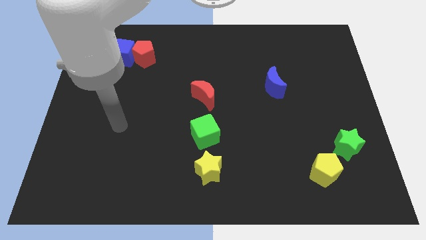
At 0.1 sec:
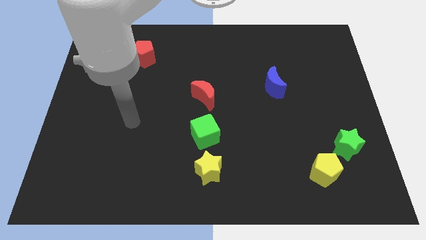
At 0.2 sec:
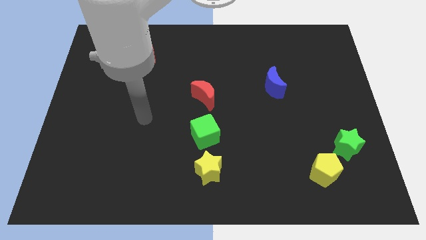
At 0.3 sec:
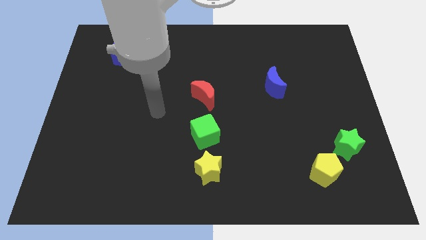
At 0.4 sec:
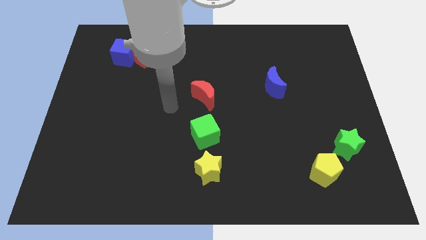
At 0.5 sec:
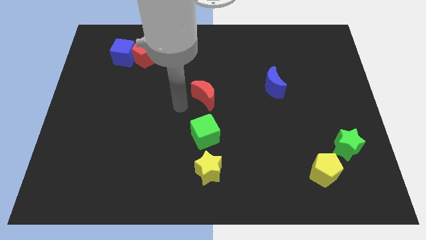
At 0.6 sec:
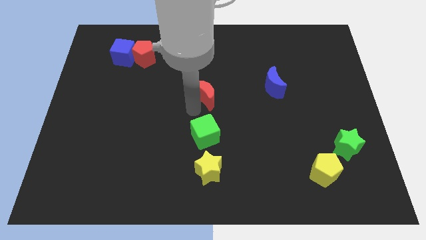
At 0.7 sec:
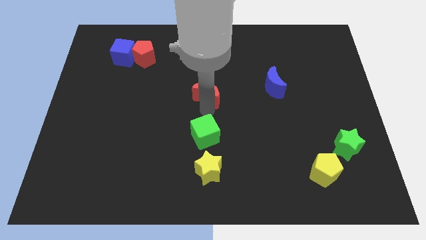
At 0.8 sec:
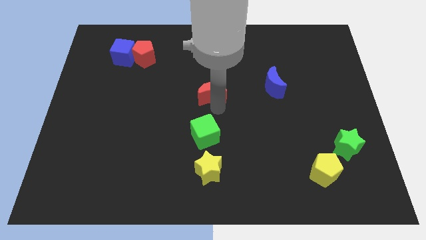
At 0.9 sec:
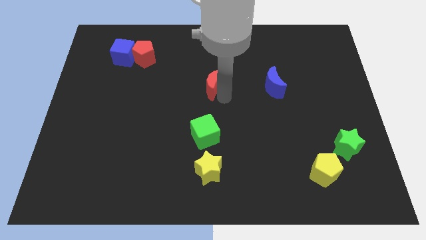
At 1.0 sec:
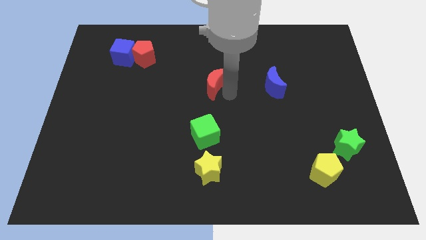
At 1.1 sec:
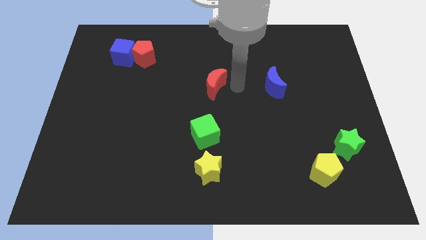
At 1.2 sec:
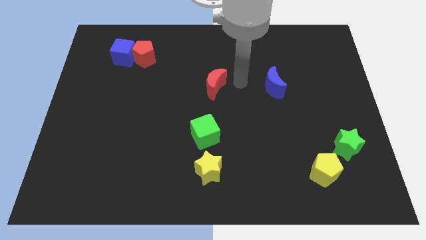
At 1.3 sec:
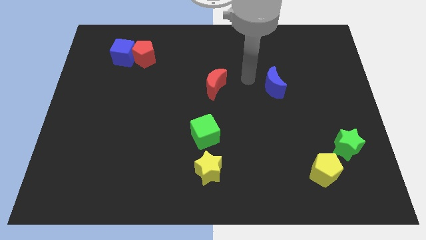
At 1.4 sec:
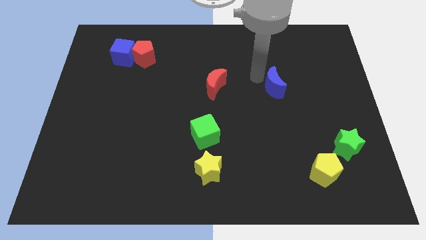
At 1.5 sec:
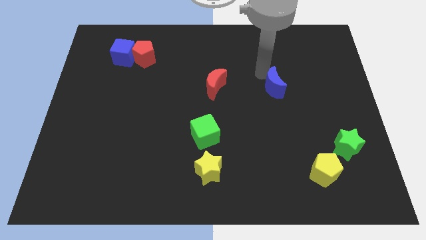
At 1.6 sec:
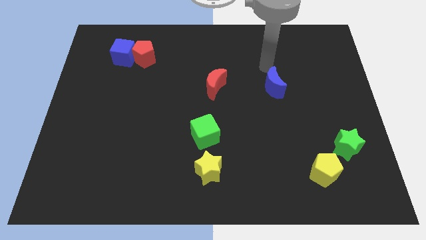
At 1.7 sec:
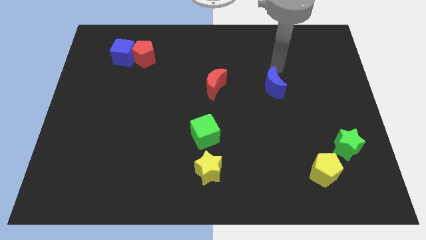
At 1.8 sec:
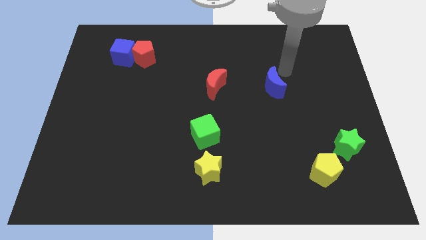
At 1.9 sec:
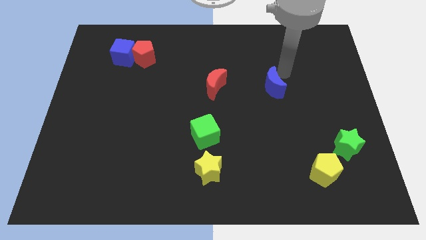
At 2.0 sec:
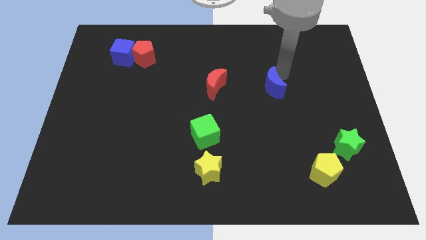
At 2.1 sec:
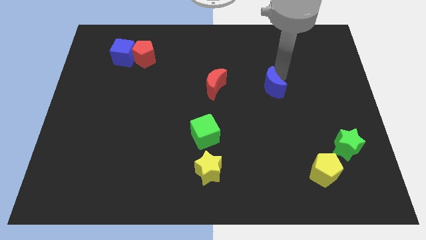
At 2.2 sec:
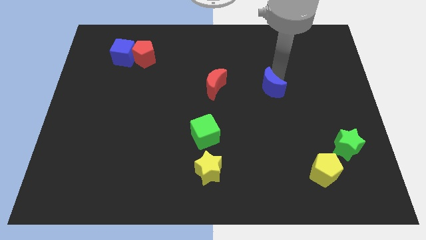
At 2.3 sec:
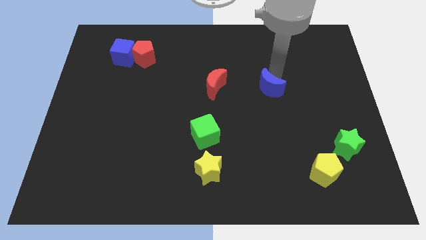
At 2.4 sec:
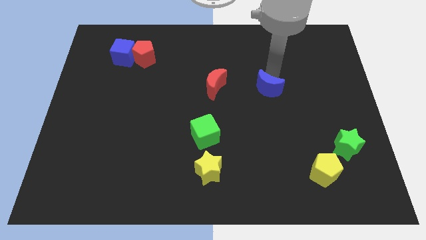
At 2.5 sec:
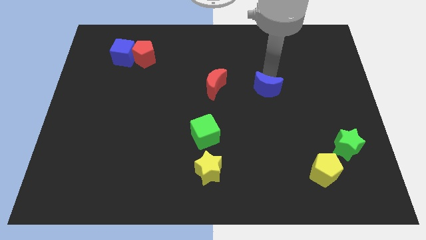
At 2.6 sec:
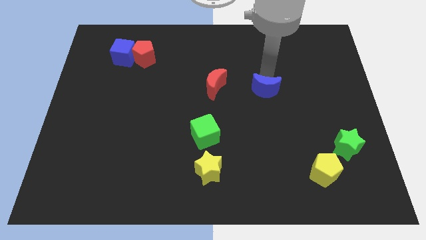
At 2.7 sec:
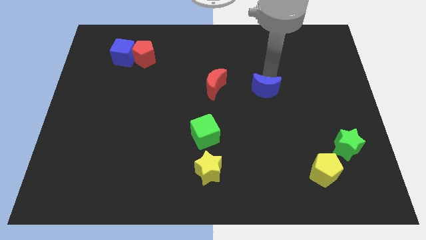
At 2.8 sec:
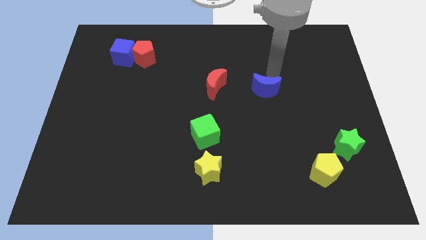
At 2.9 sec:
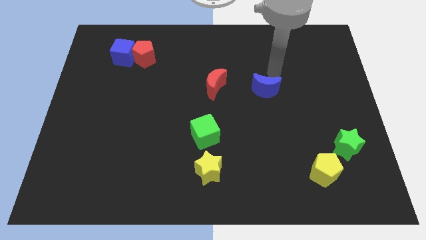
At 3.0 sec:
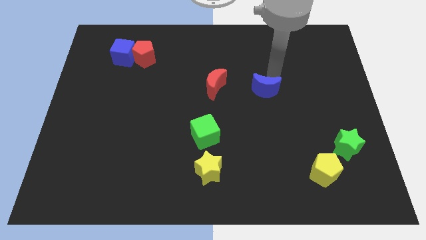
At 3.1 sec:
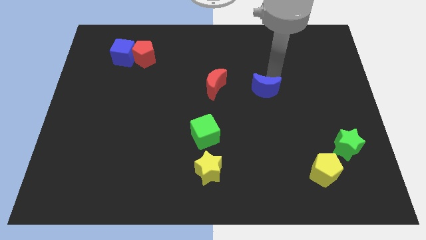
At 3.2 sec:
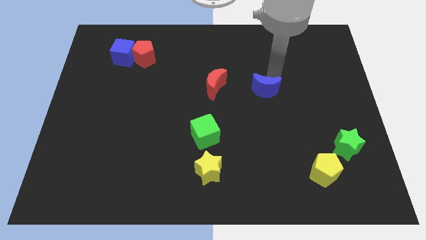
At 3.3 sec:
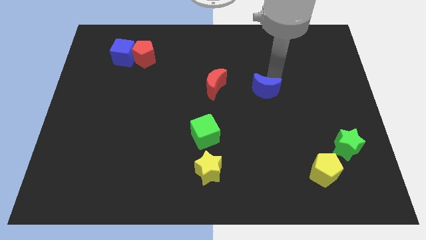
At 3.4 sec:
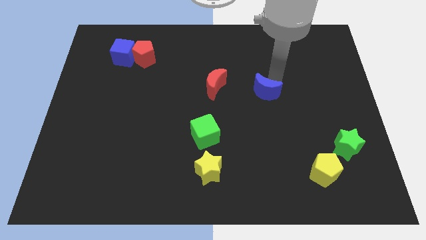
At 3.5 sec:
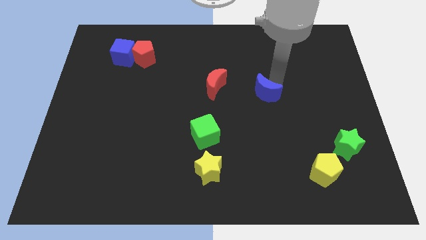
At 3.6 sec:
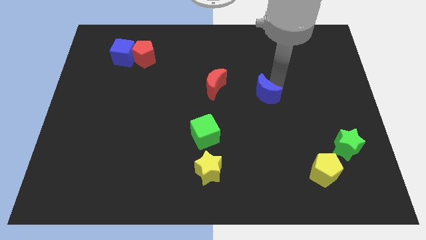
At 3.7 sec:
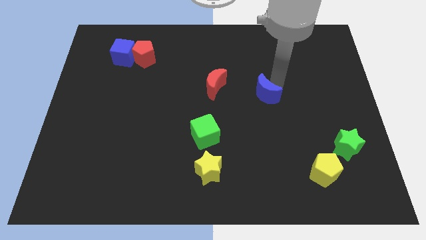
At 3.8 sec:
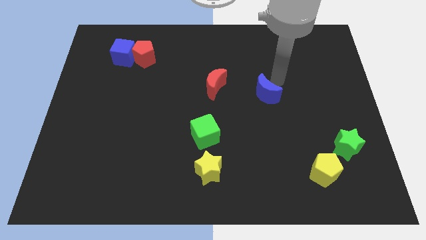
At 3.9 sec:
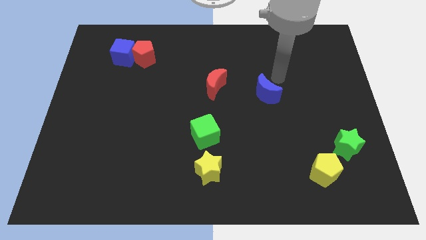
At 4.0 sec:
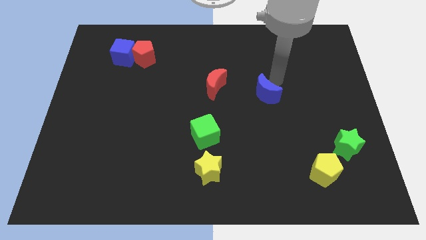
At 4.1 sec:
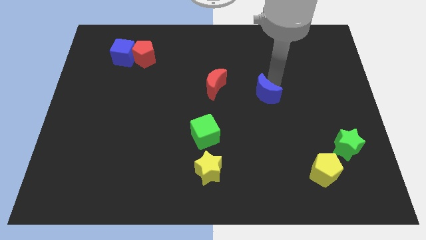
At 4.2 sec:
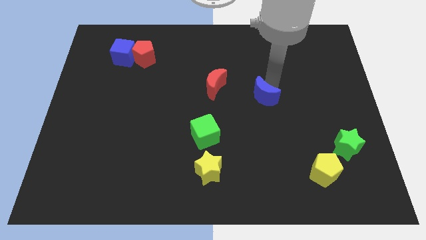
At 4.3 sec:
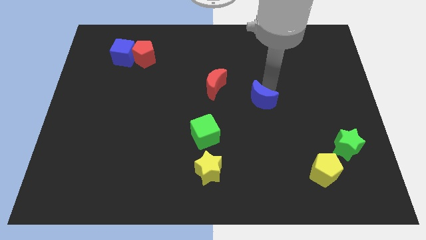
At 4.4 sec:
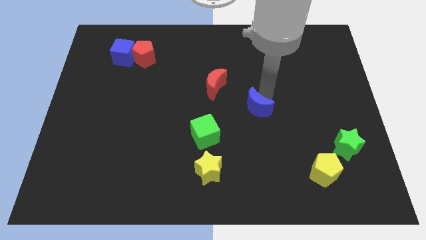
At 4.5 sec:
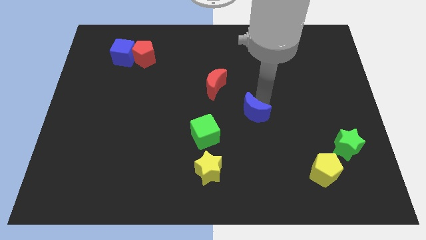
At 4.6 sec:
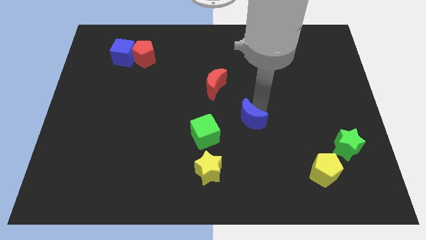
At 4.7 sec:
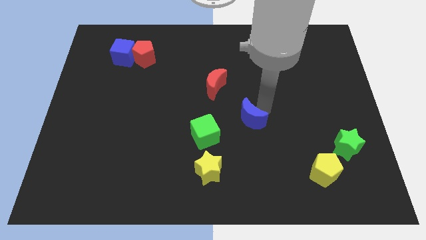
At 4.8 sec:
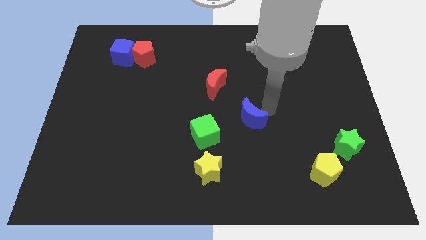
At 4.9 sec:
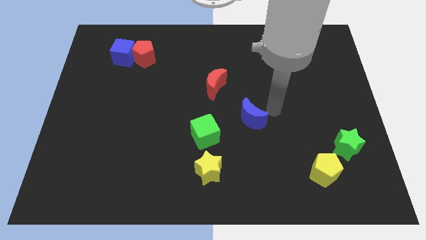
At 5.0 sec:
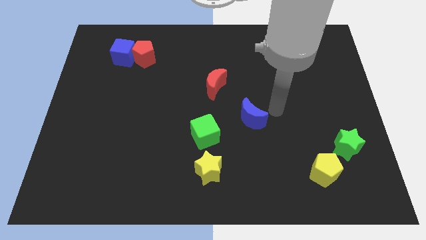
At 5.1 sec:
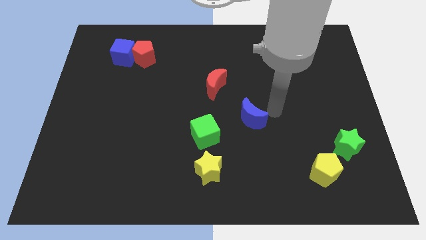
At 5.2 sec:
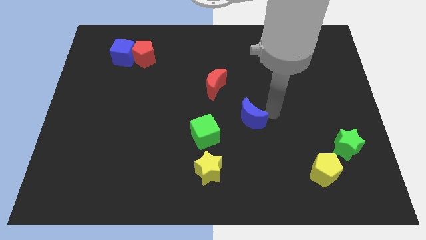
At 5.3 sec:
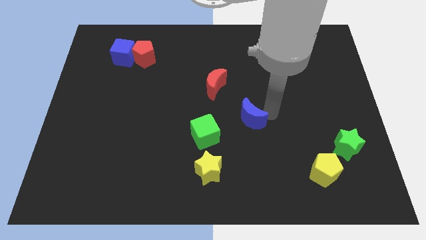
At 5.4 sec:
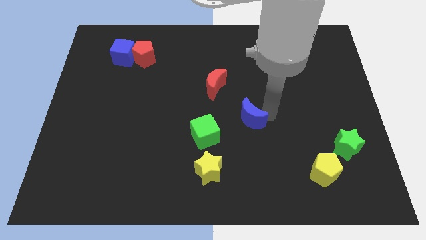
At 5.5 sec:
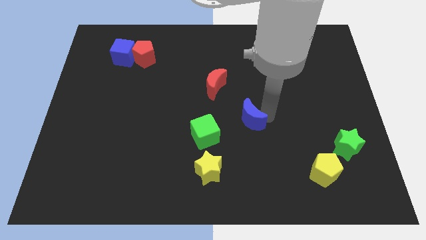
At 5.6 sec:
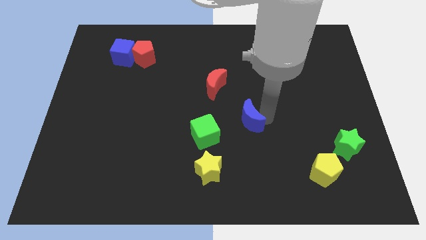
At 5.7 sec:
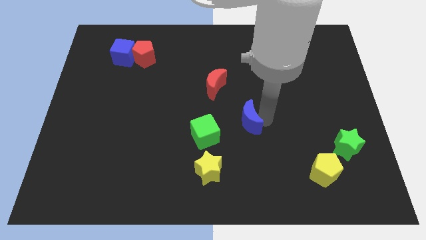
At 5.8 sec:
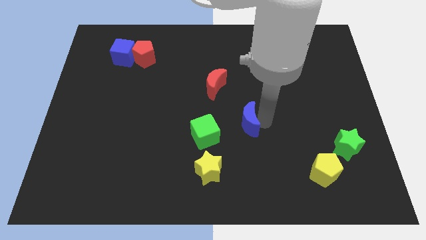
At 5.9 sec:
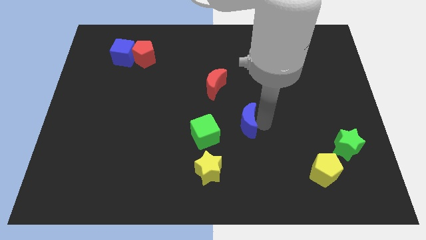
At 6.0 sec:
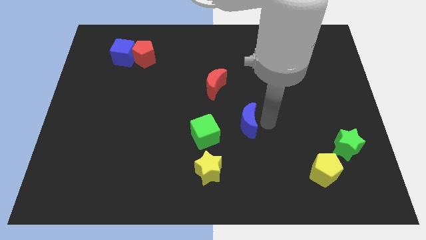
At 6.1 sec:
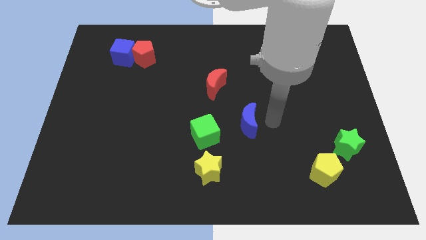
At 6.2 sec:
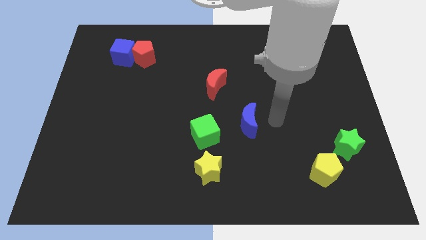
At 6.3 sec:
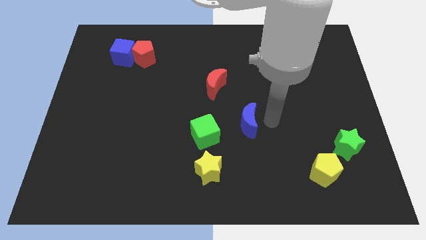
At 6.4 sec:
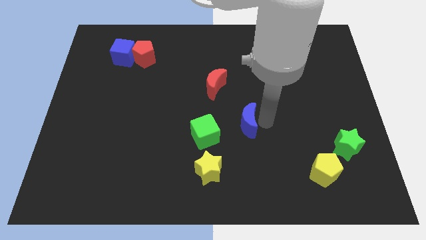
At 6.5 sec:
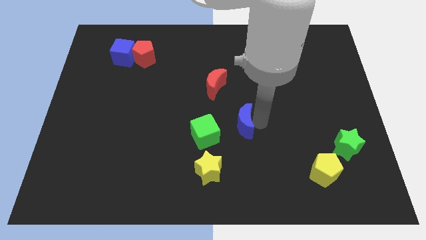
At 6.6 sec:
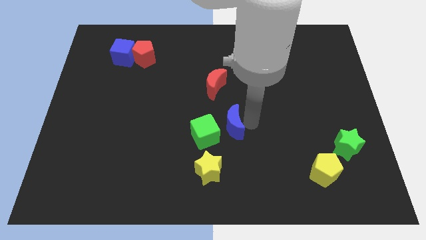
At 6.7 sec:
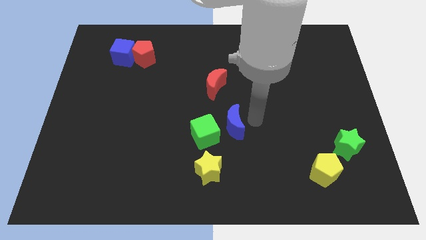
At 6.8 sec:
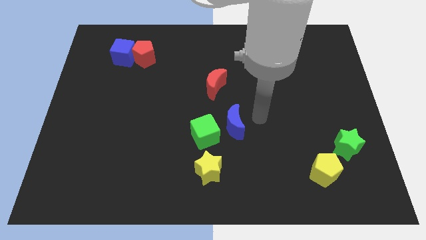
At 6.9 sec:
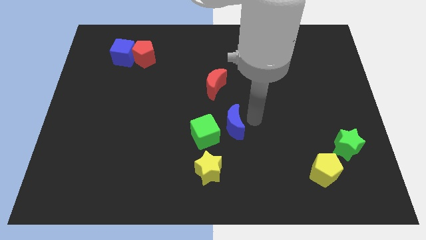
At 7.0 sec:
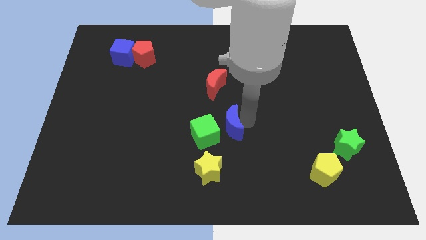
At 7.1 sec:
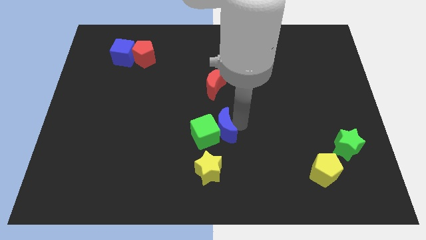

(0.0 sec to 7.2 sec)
put the blue moon close to the green cube
